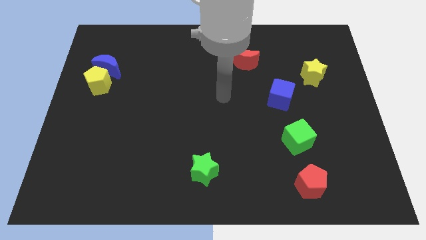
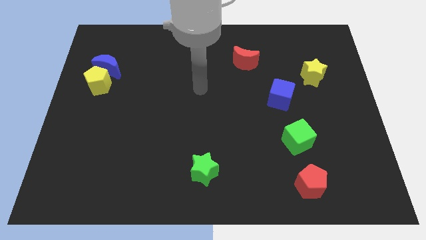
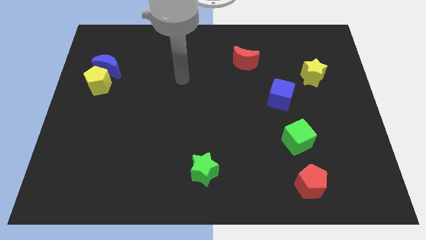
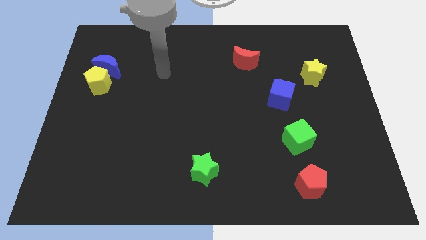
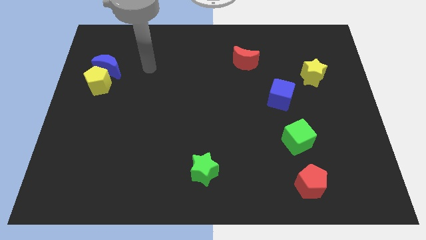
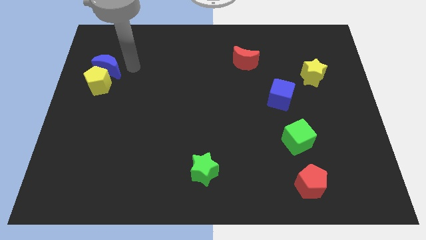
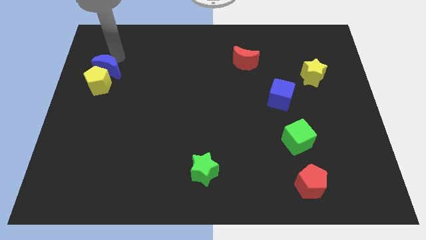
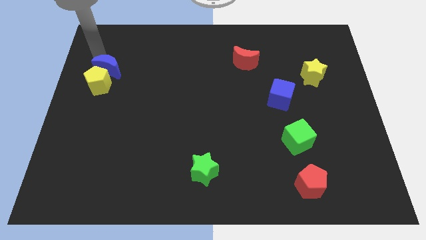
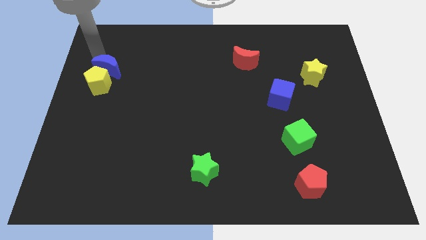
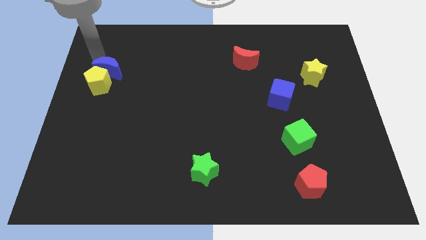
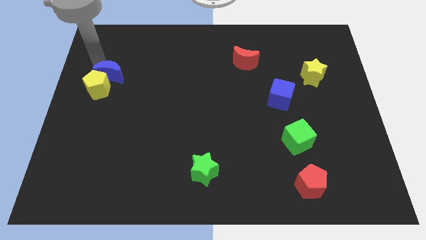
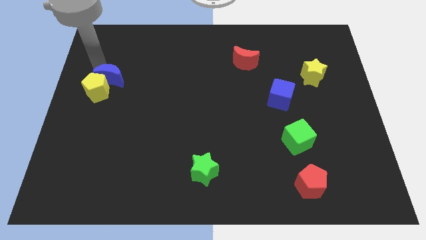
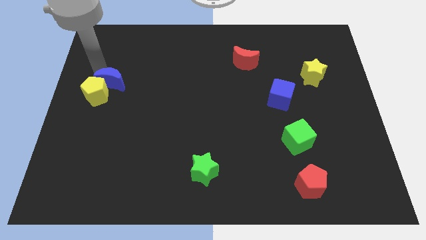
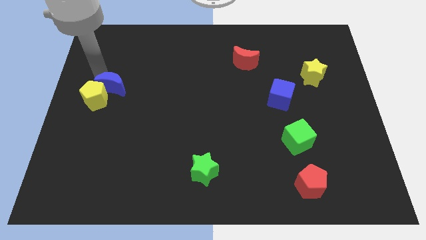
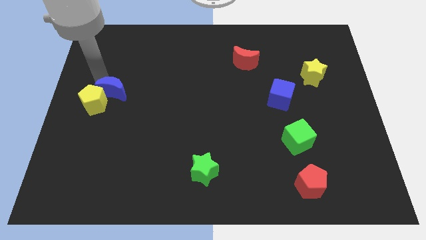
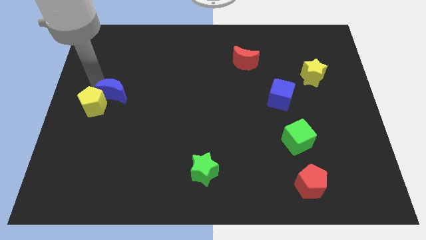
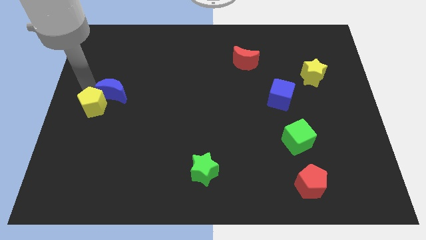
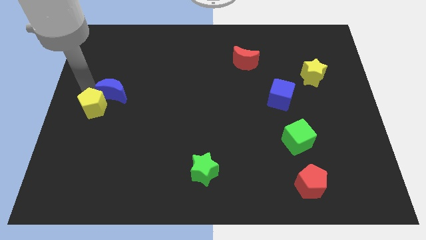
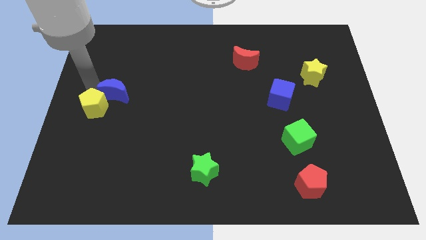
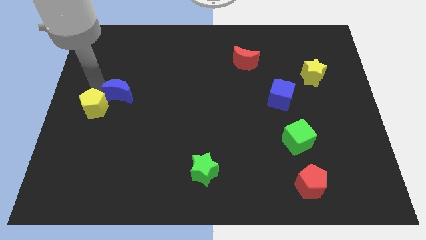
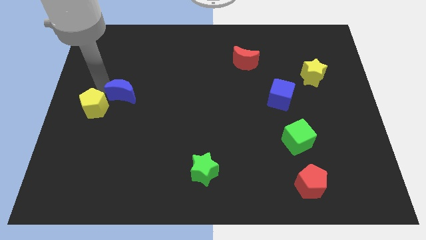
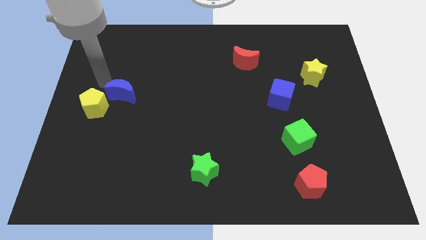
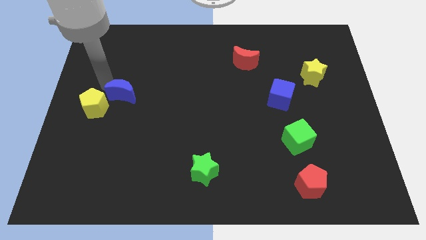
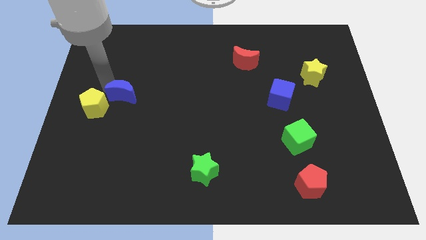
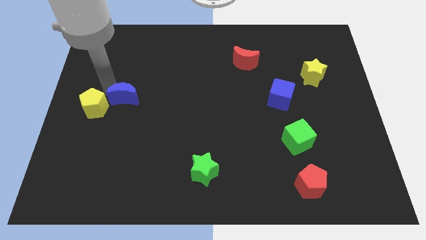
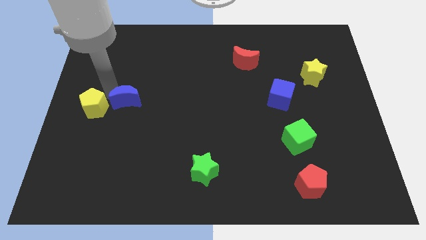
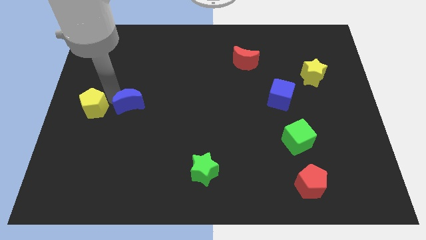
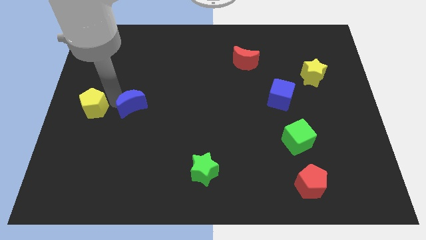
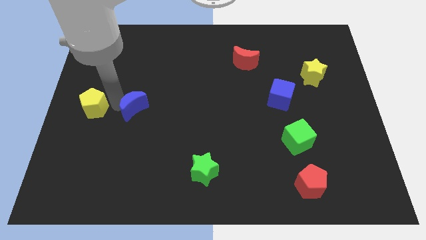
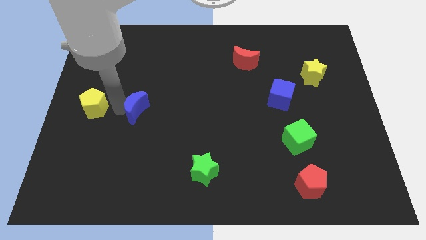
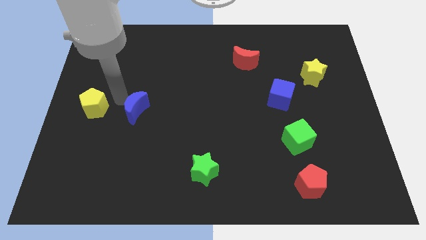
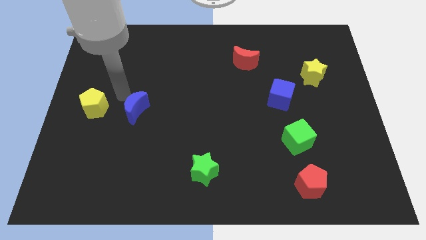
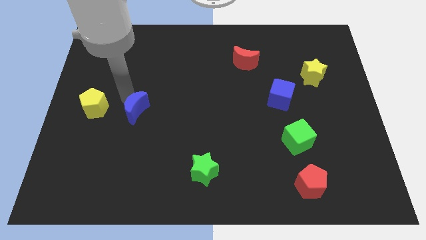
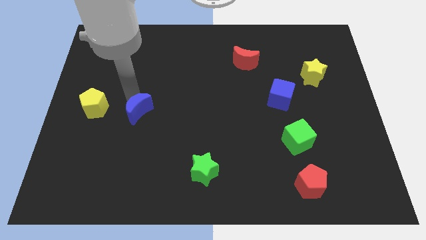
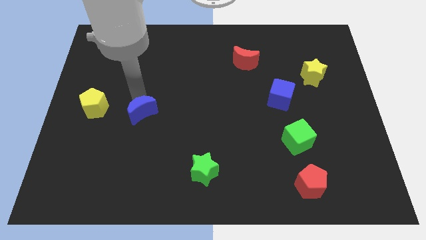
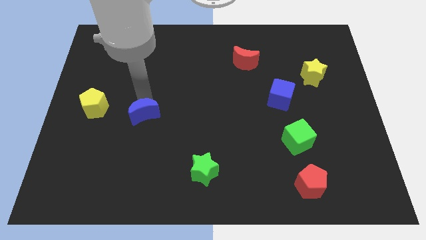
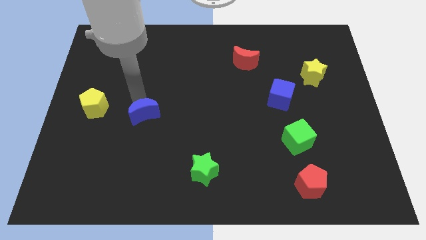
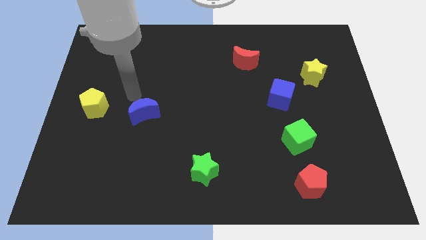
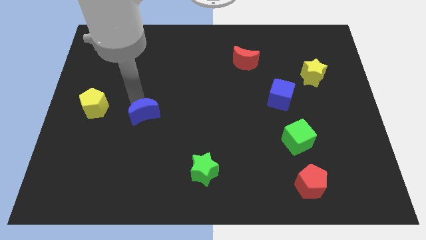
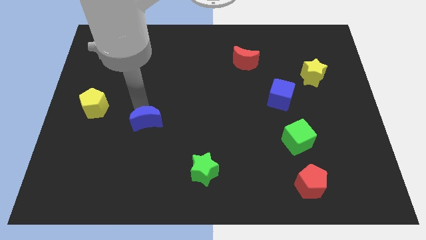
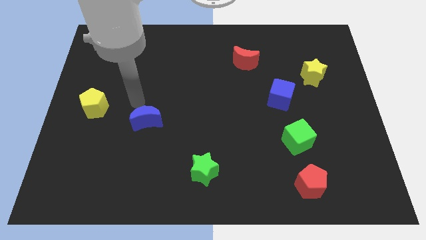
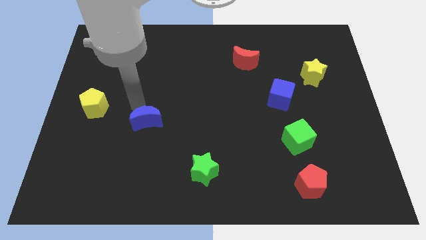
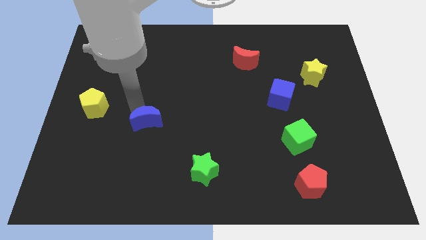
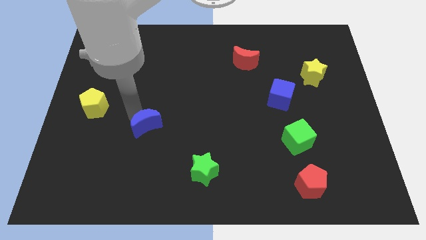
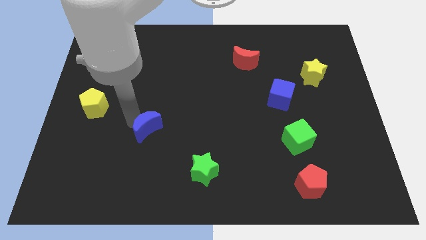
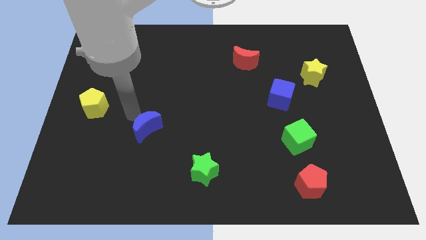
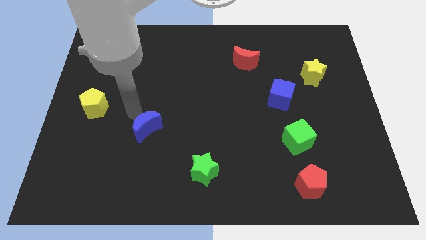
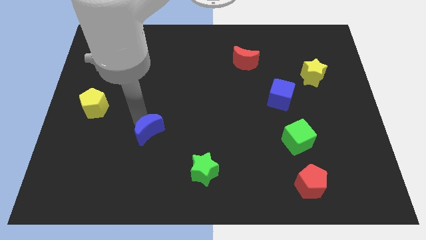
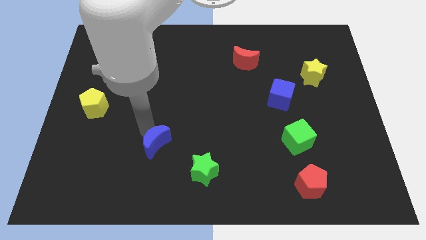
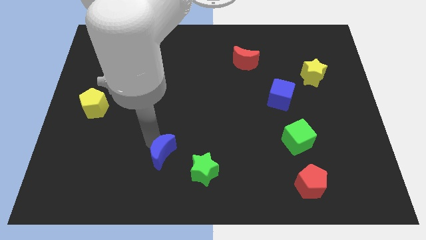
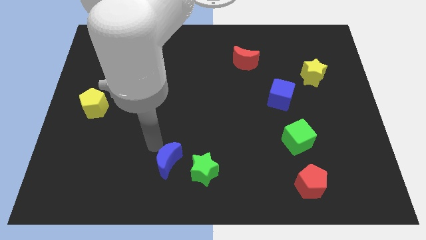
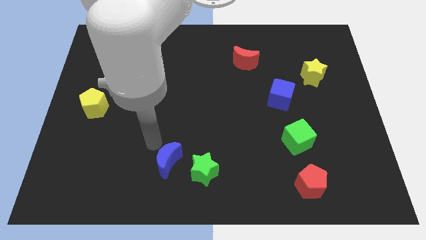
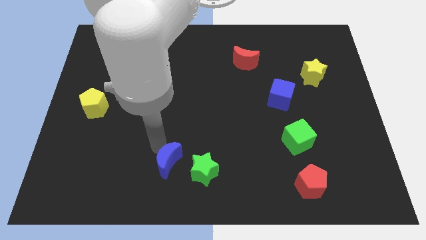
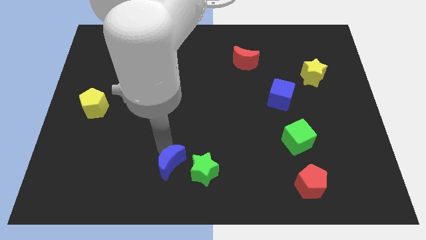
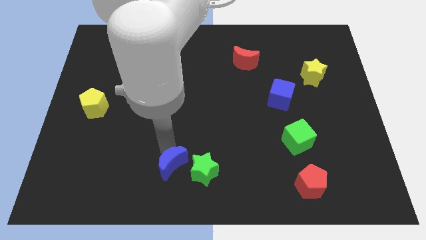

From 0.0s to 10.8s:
slide the blue moon to the bottom side

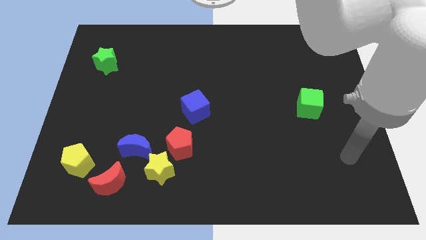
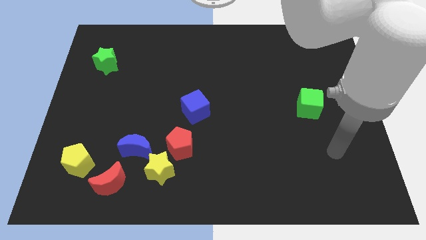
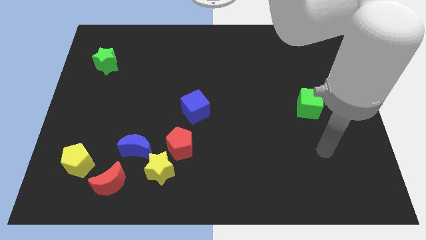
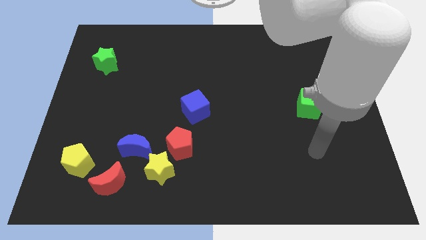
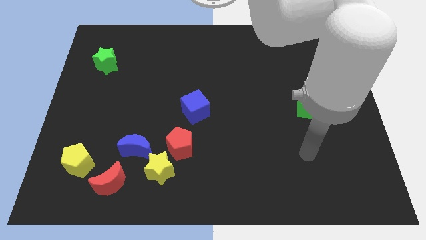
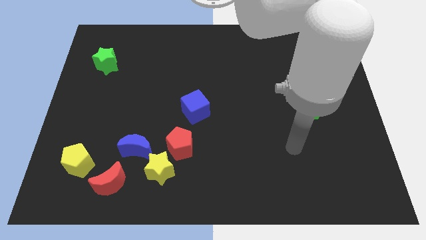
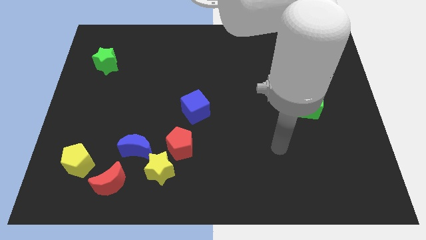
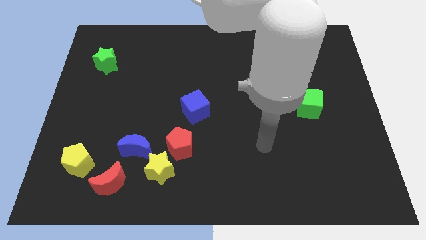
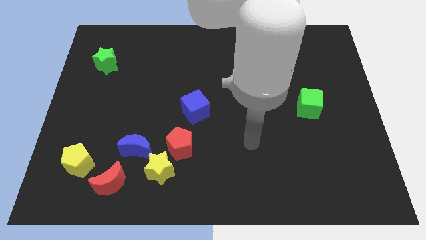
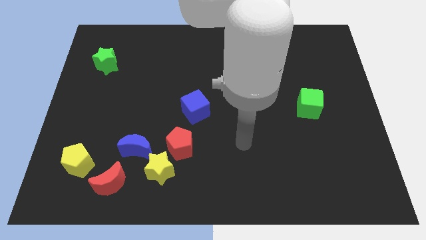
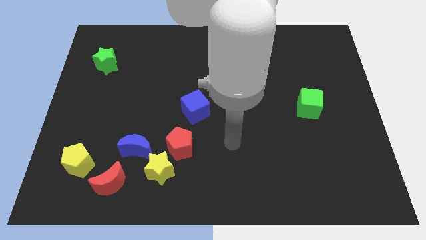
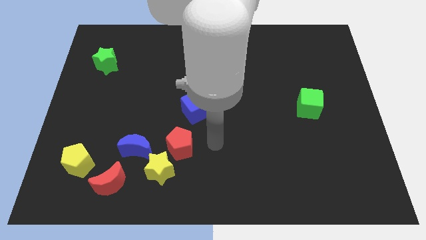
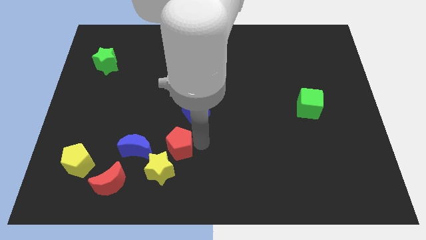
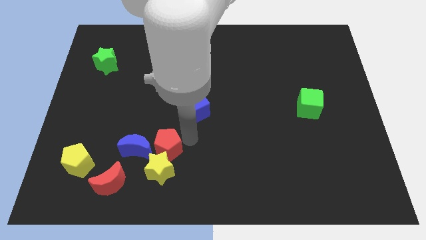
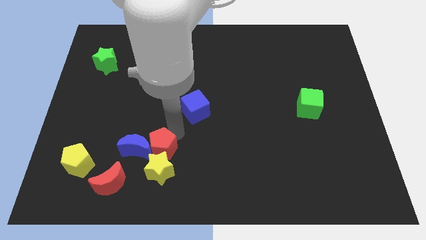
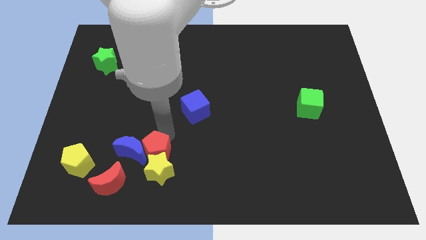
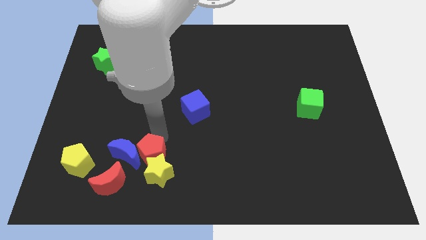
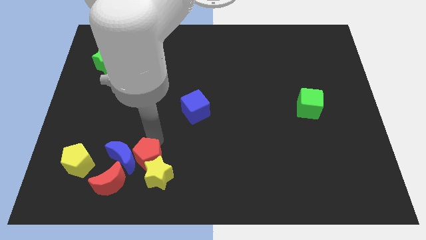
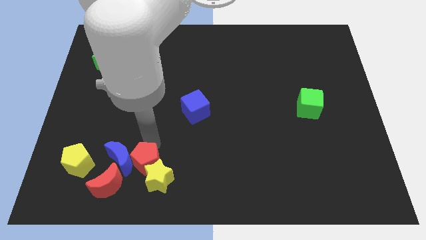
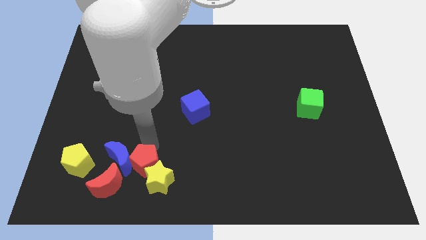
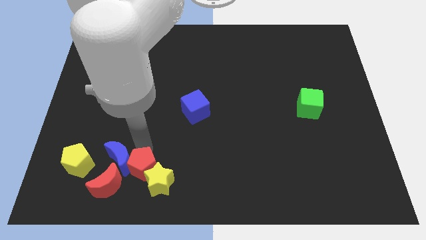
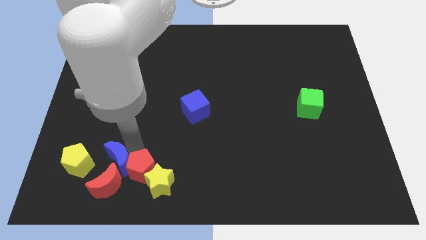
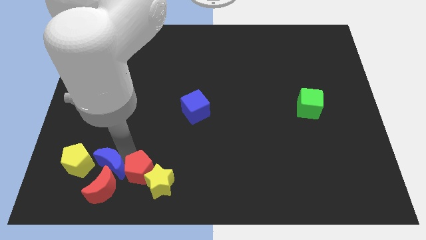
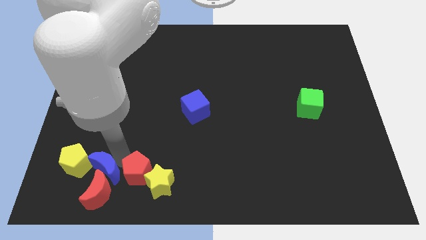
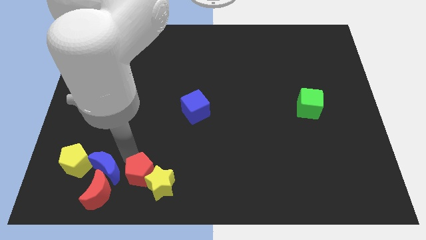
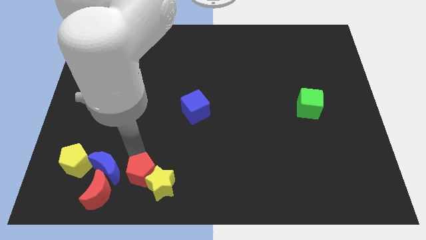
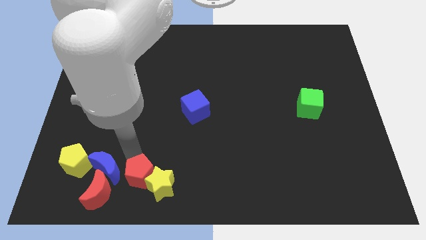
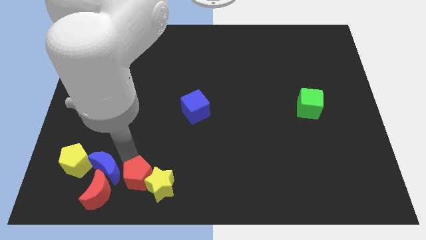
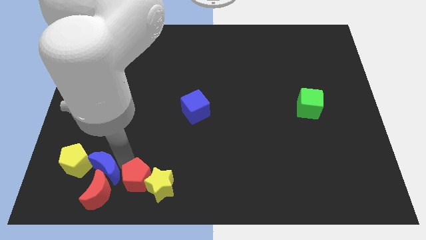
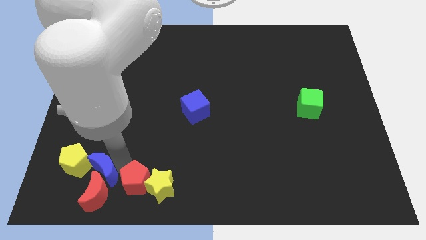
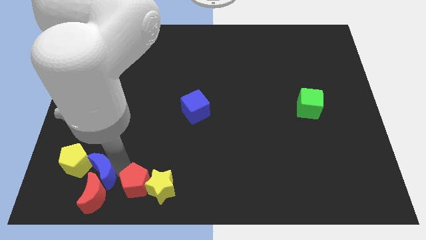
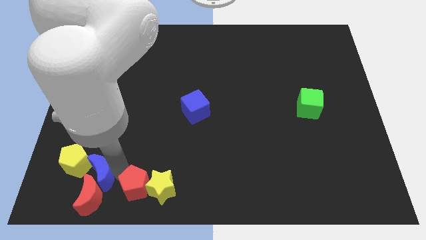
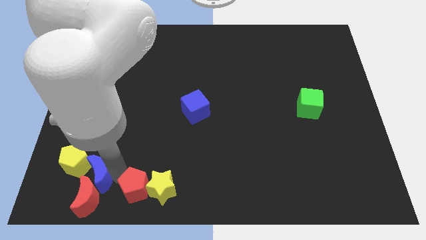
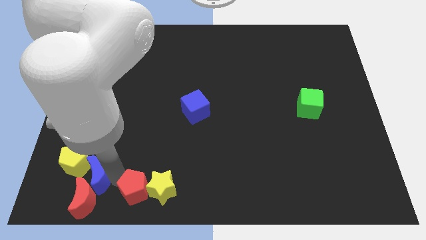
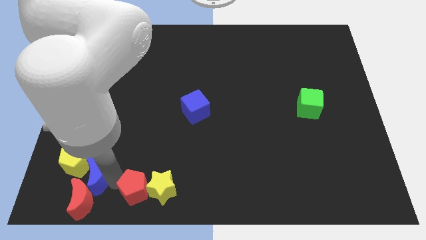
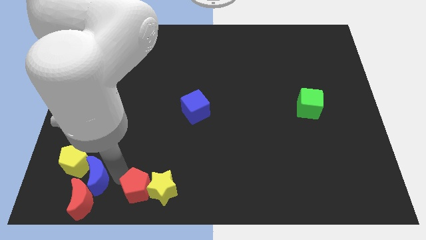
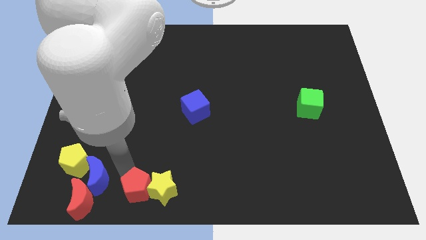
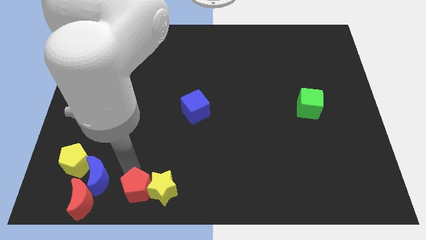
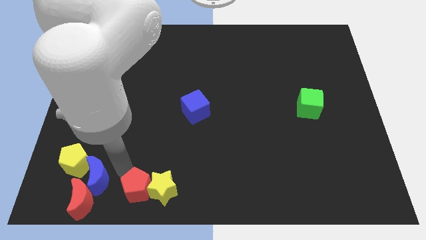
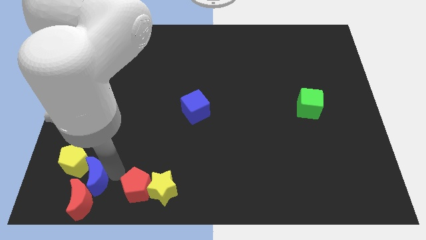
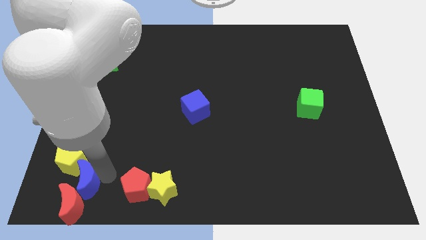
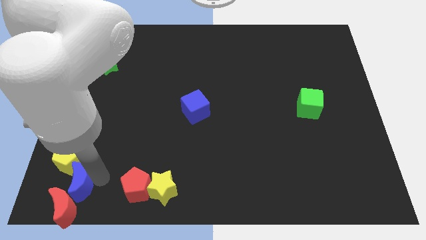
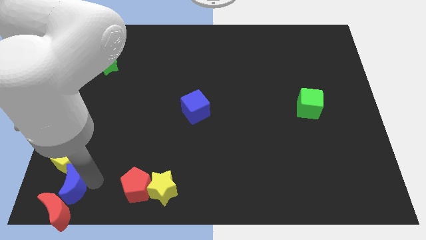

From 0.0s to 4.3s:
move the blue moon to the bottom left corner
